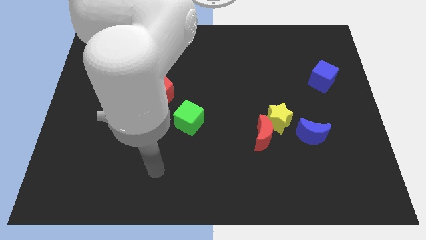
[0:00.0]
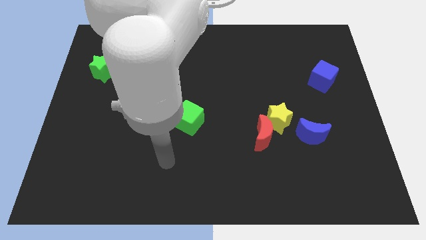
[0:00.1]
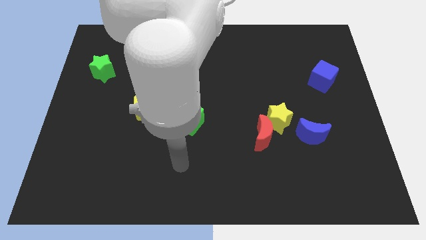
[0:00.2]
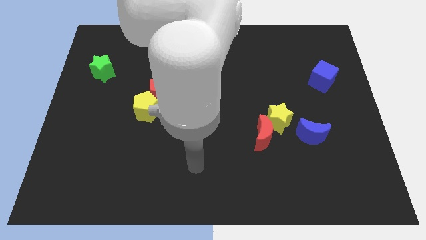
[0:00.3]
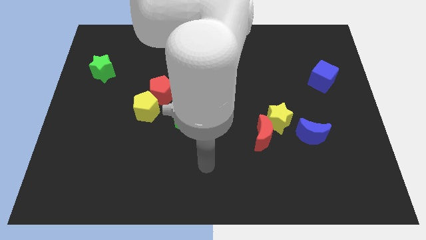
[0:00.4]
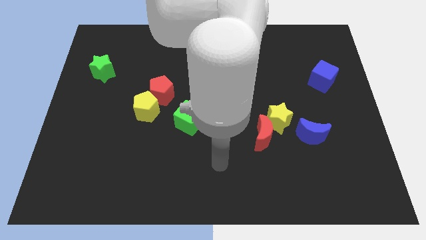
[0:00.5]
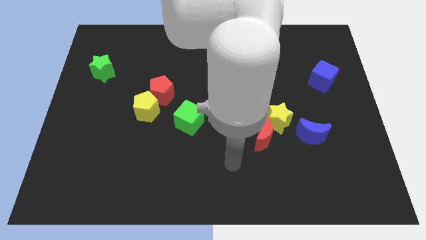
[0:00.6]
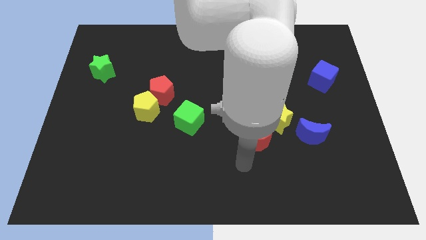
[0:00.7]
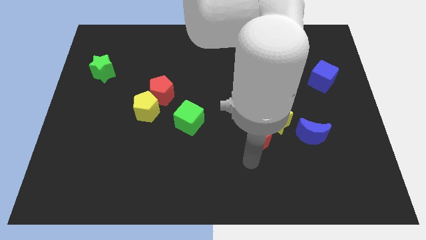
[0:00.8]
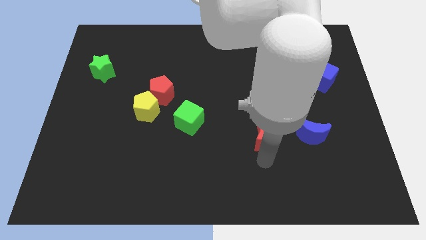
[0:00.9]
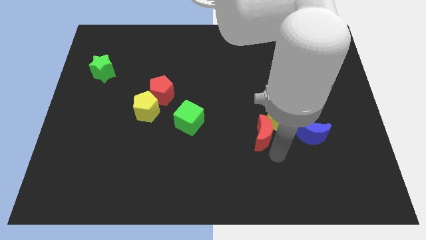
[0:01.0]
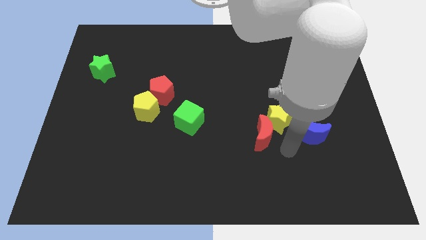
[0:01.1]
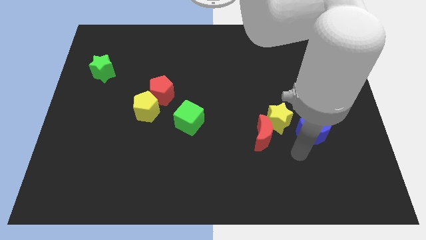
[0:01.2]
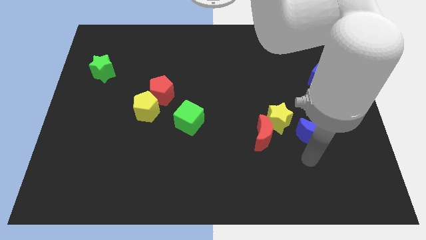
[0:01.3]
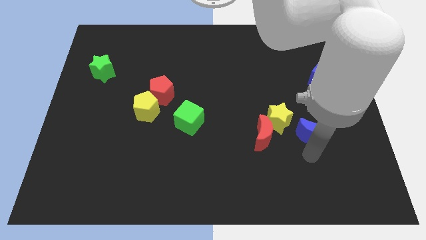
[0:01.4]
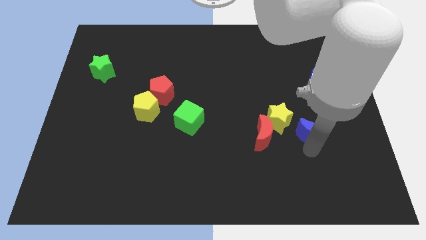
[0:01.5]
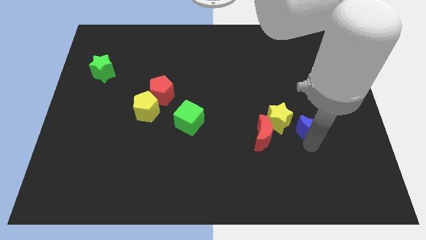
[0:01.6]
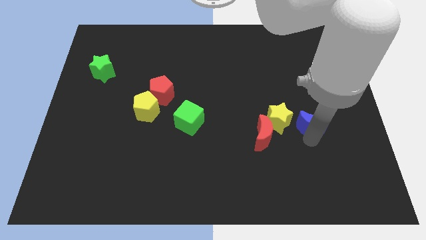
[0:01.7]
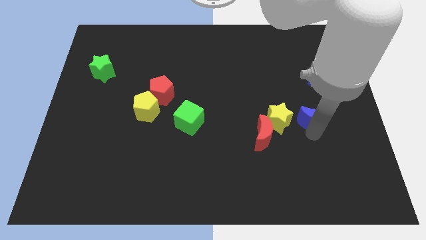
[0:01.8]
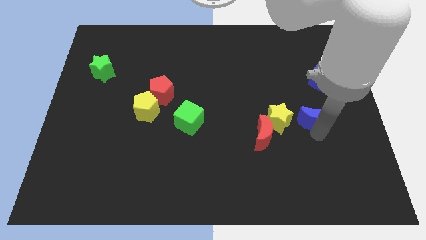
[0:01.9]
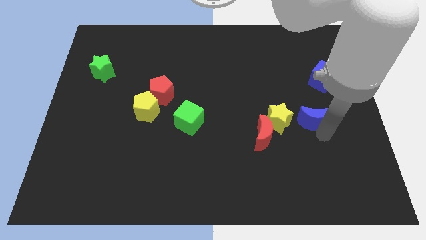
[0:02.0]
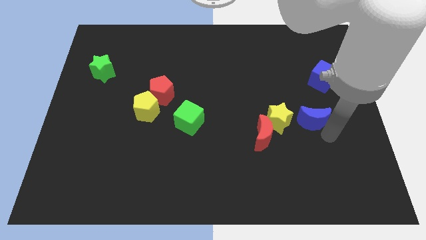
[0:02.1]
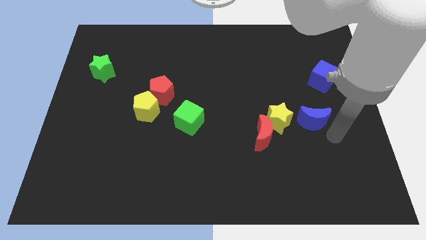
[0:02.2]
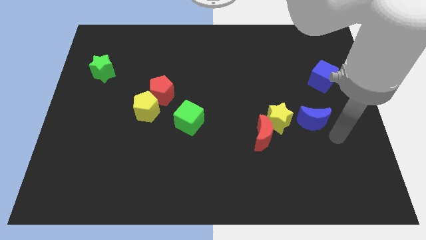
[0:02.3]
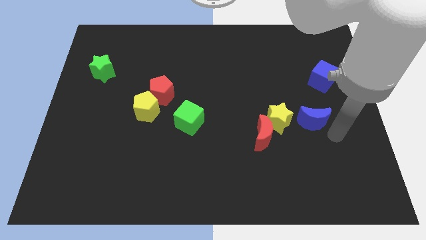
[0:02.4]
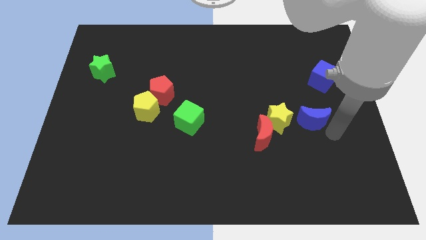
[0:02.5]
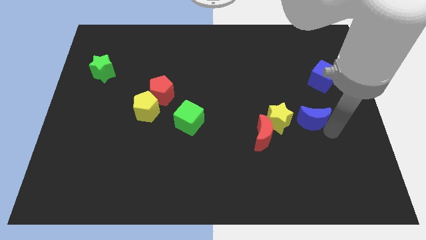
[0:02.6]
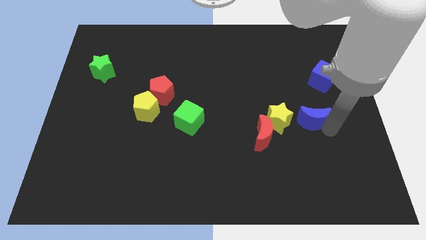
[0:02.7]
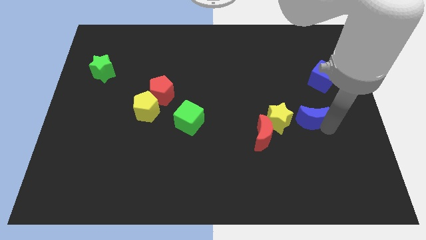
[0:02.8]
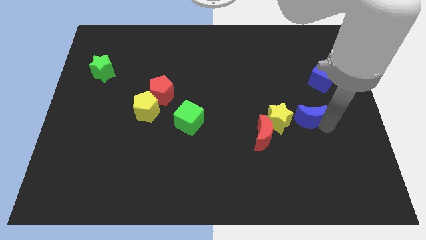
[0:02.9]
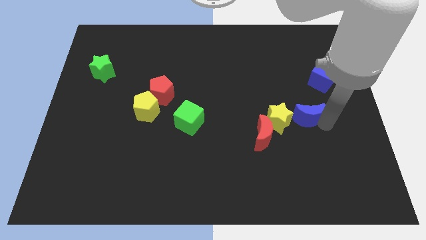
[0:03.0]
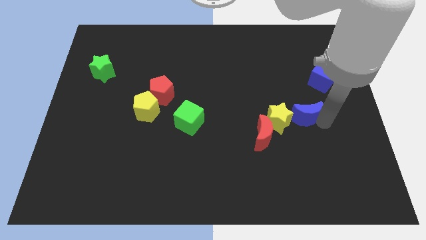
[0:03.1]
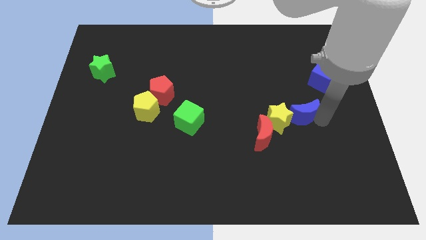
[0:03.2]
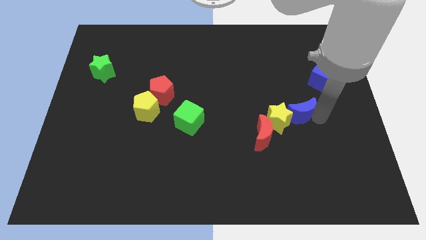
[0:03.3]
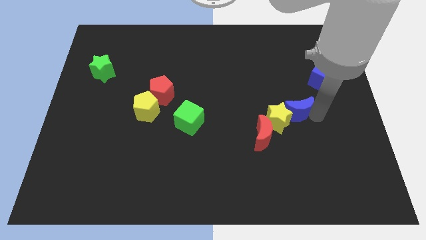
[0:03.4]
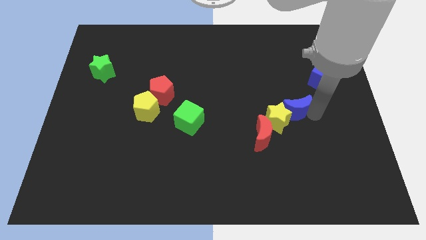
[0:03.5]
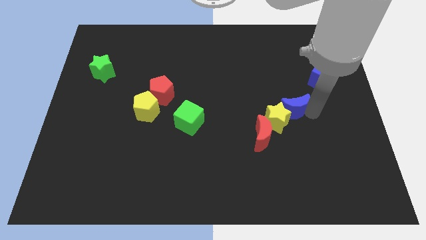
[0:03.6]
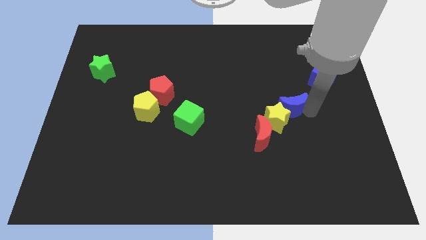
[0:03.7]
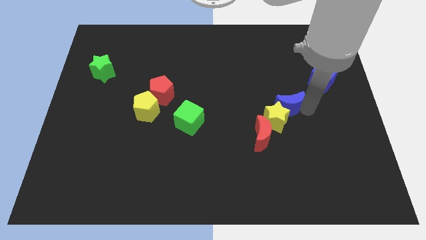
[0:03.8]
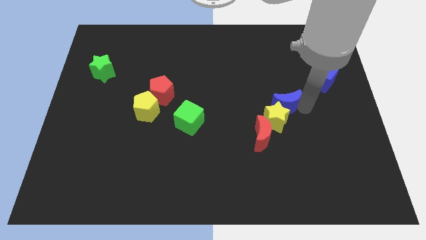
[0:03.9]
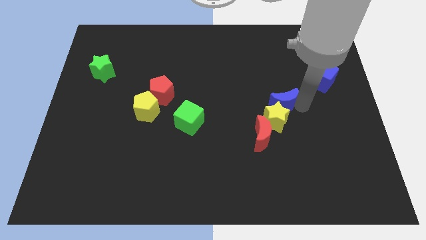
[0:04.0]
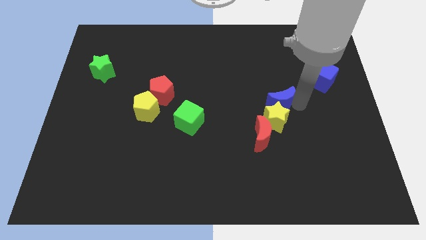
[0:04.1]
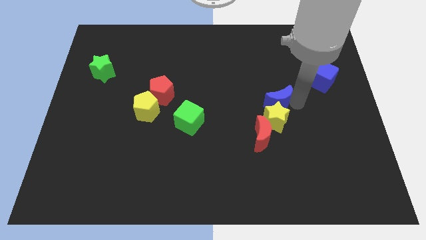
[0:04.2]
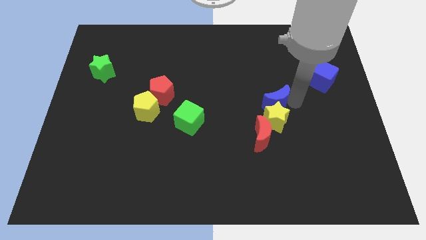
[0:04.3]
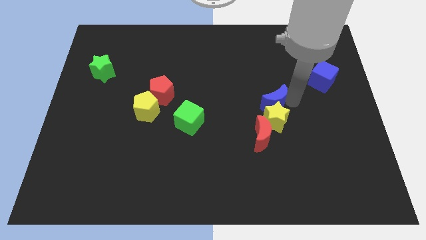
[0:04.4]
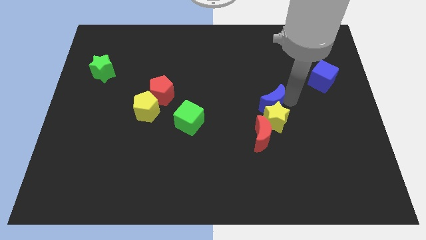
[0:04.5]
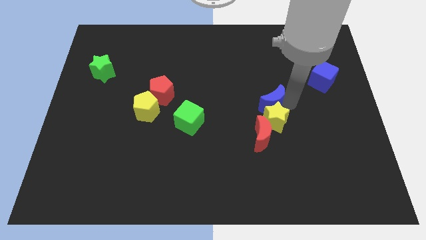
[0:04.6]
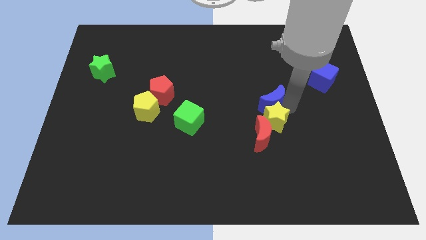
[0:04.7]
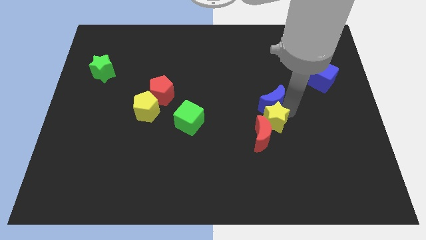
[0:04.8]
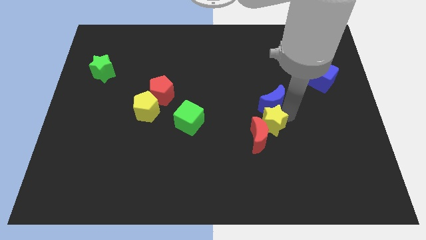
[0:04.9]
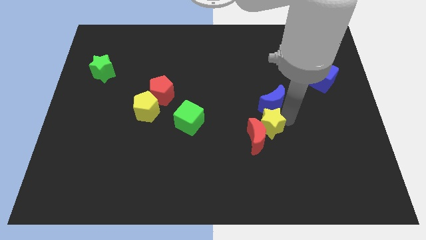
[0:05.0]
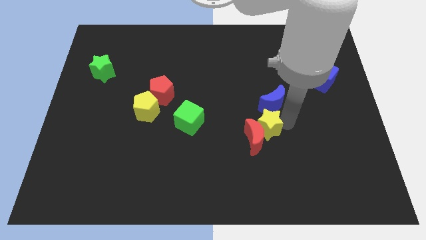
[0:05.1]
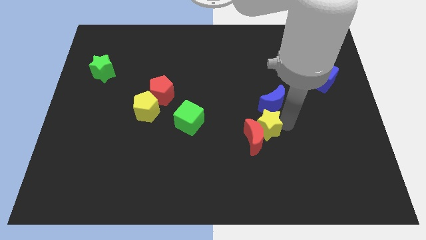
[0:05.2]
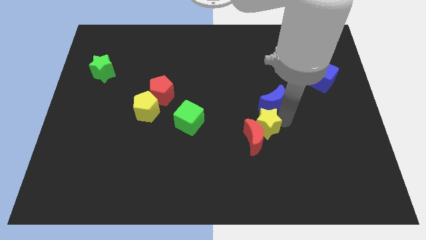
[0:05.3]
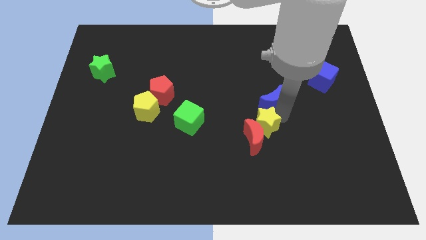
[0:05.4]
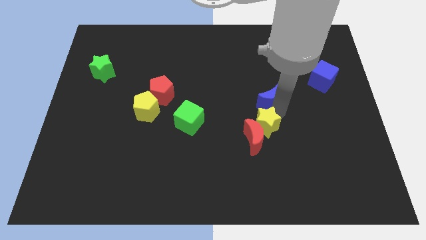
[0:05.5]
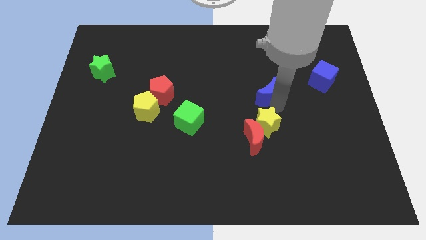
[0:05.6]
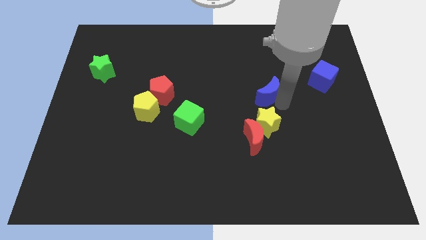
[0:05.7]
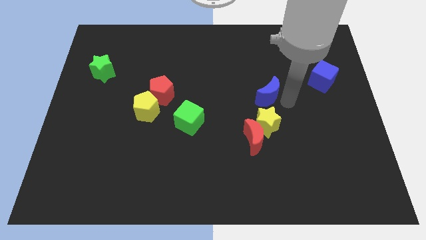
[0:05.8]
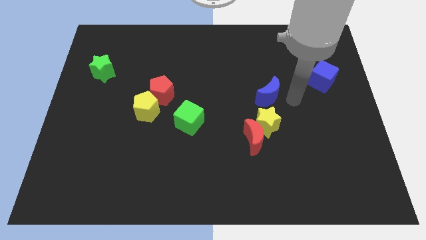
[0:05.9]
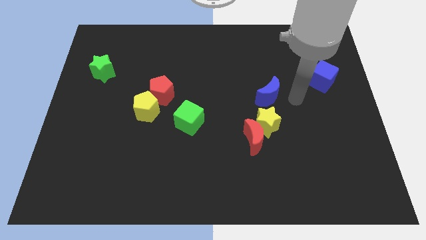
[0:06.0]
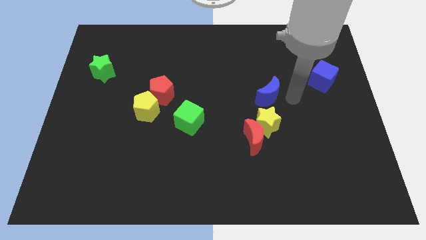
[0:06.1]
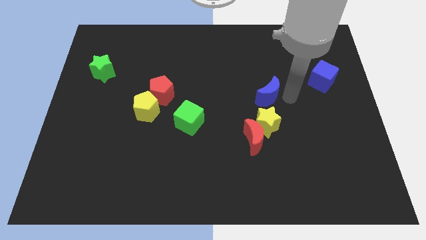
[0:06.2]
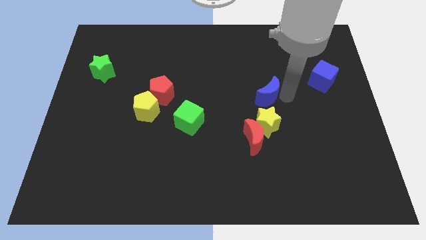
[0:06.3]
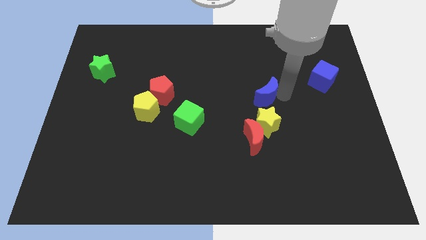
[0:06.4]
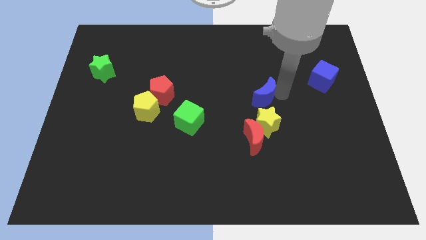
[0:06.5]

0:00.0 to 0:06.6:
slide the blue moon to the center
